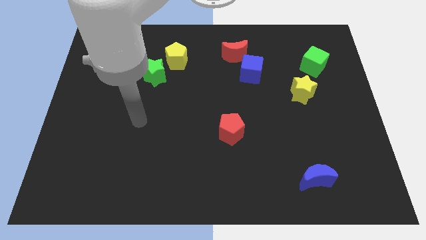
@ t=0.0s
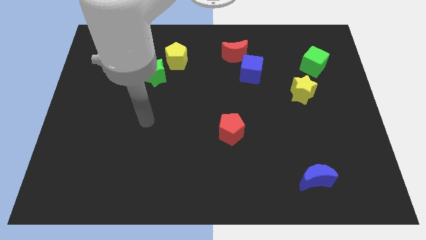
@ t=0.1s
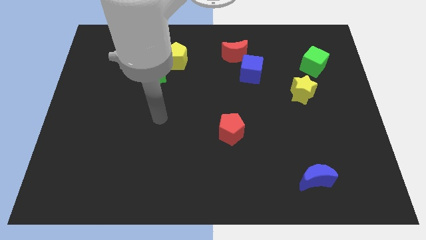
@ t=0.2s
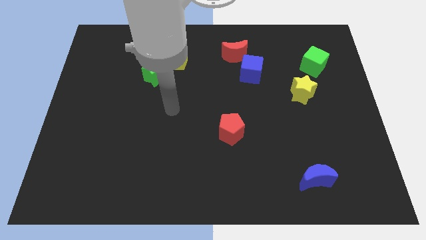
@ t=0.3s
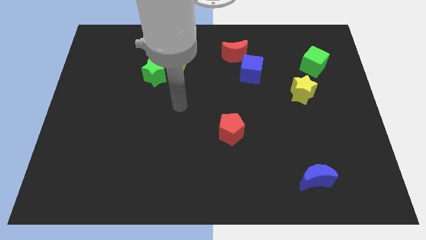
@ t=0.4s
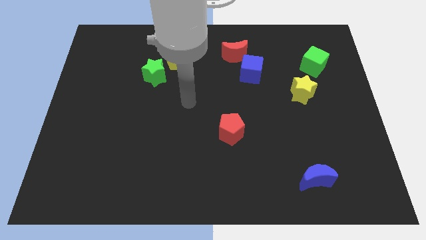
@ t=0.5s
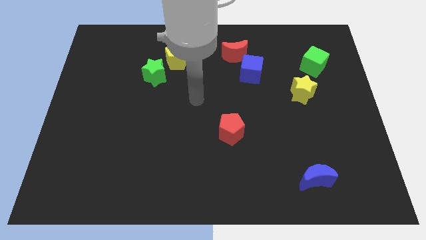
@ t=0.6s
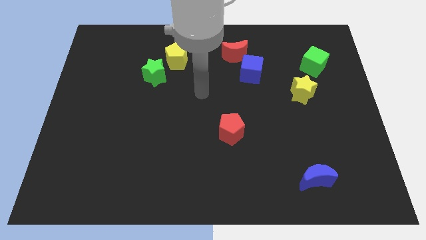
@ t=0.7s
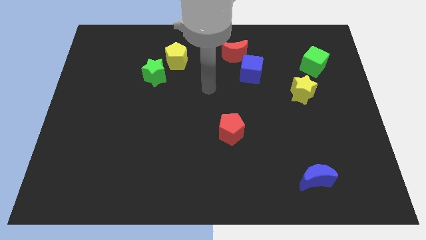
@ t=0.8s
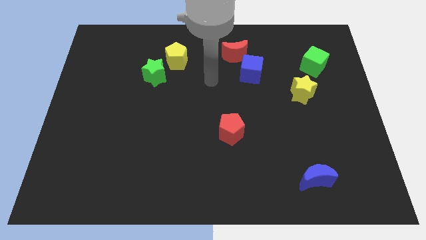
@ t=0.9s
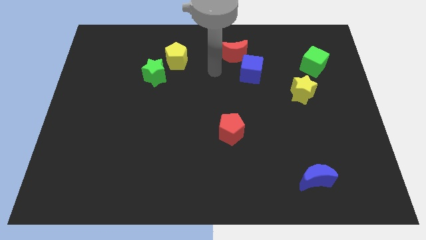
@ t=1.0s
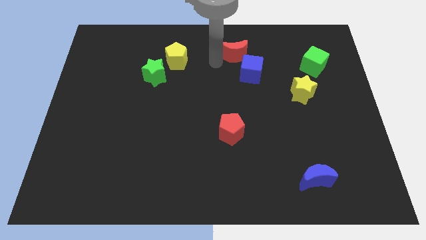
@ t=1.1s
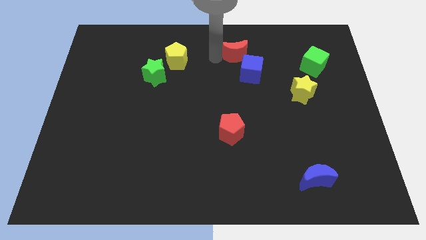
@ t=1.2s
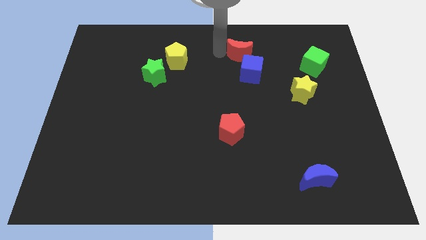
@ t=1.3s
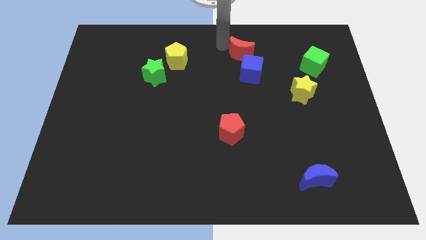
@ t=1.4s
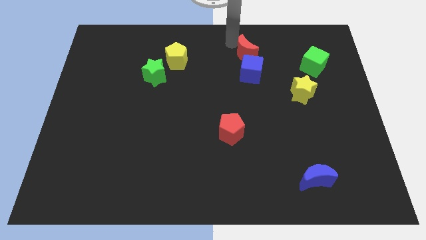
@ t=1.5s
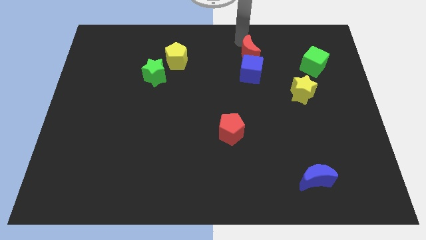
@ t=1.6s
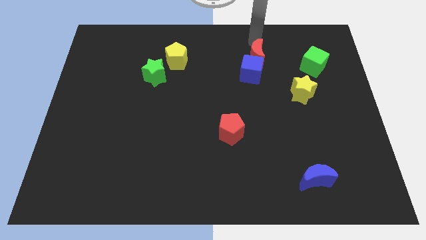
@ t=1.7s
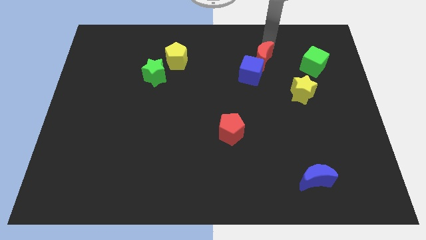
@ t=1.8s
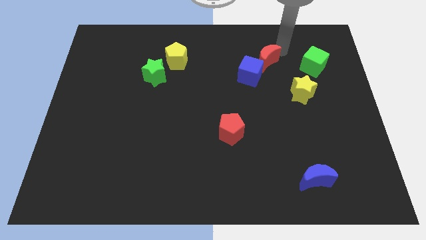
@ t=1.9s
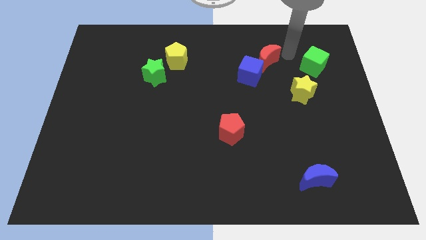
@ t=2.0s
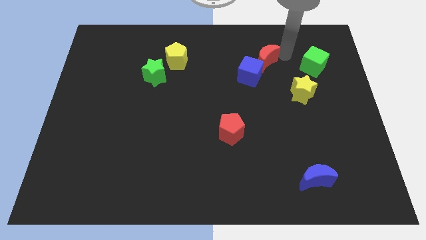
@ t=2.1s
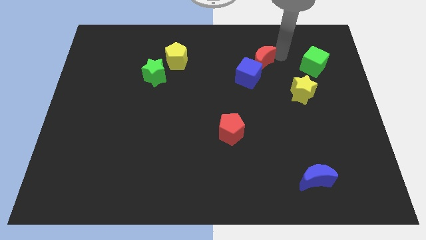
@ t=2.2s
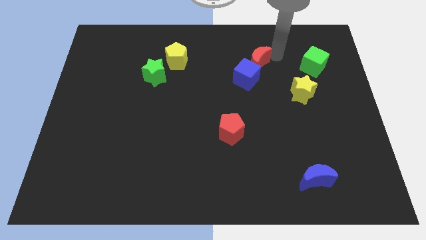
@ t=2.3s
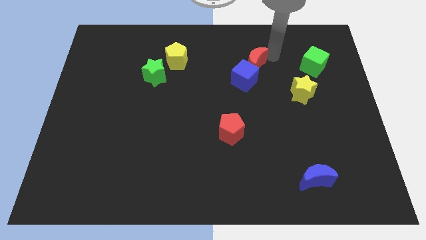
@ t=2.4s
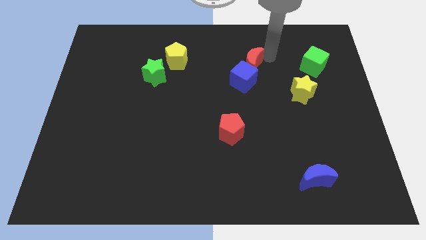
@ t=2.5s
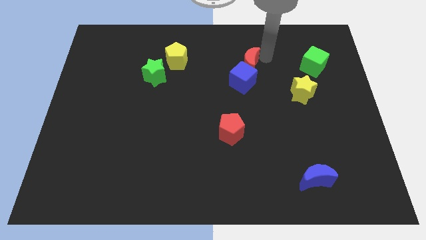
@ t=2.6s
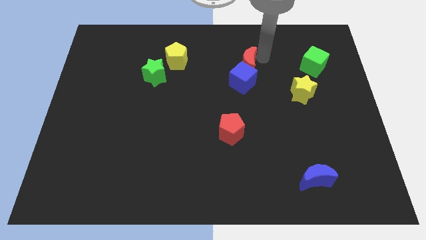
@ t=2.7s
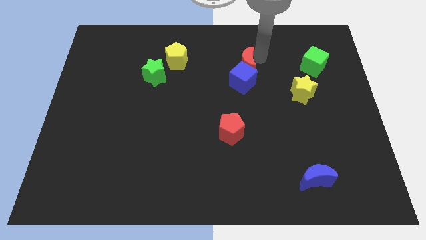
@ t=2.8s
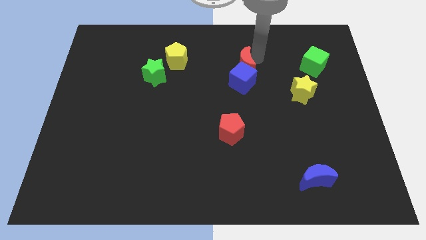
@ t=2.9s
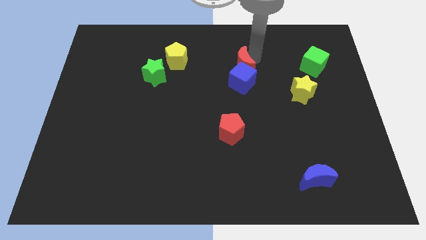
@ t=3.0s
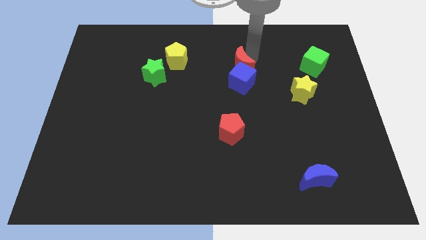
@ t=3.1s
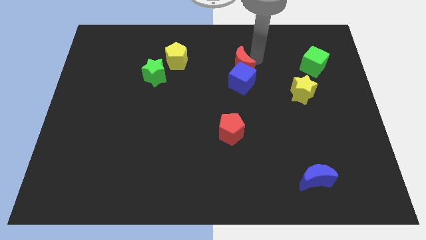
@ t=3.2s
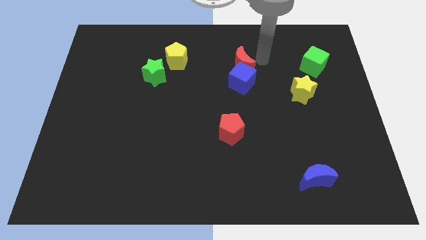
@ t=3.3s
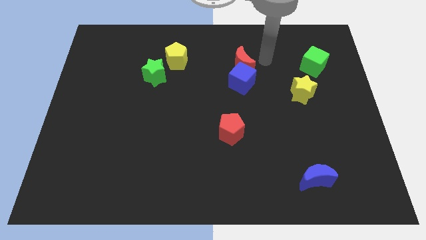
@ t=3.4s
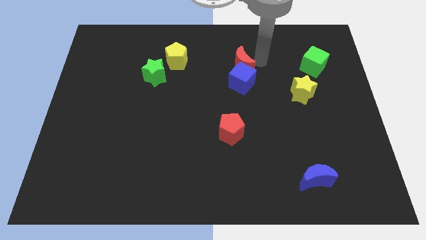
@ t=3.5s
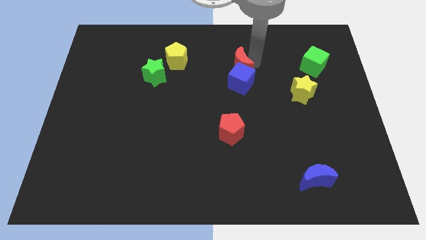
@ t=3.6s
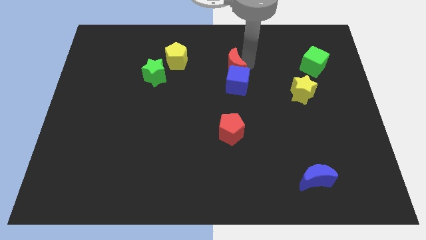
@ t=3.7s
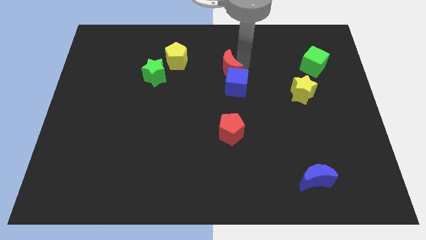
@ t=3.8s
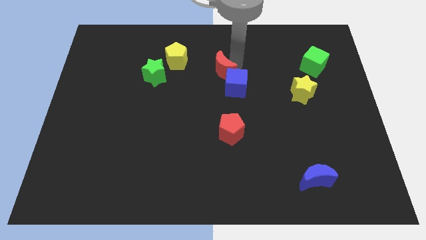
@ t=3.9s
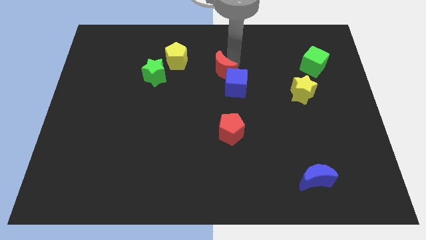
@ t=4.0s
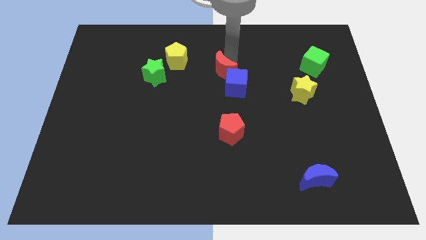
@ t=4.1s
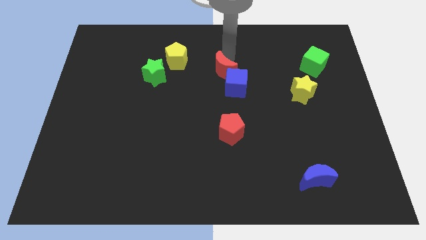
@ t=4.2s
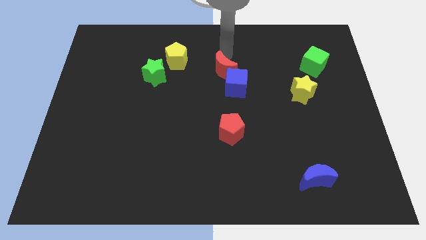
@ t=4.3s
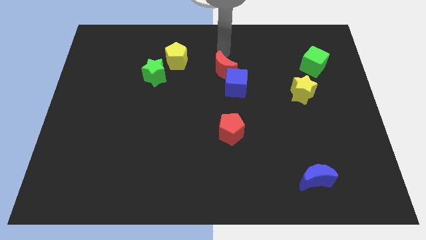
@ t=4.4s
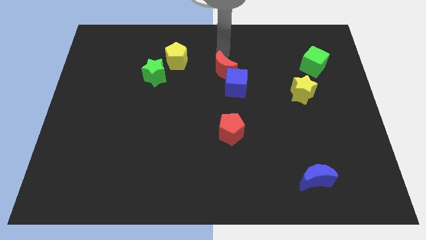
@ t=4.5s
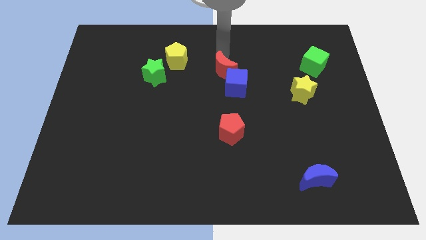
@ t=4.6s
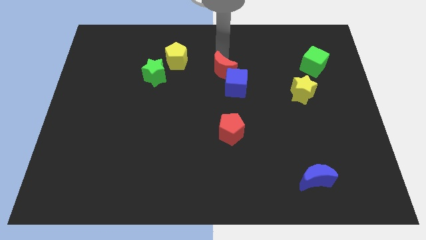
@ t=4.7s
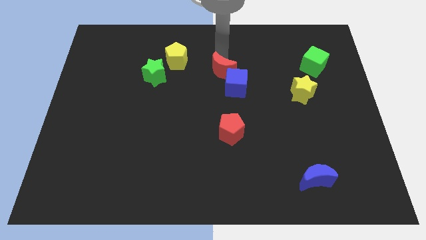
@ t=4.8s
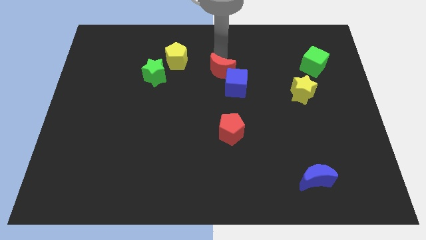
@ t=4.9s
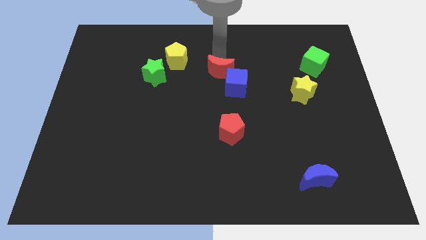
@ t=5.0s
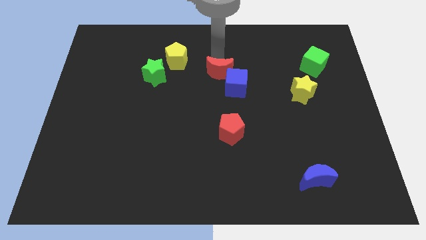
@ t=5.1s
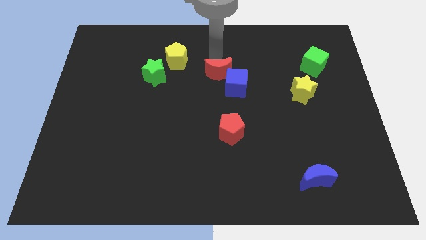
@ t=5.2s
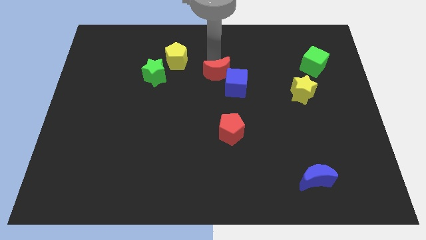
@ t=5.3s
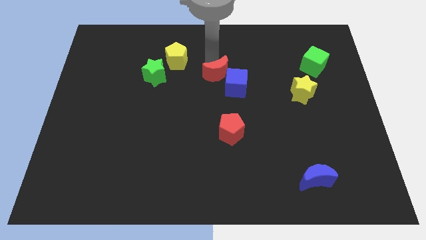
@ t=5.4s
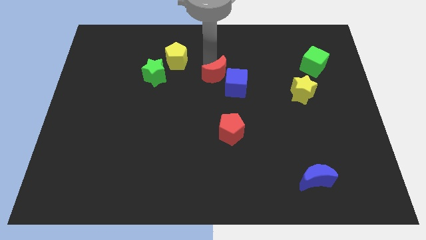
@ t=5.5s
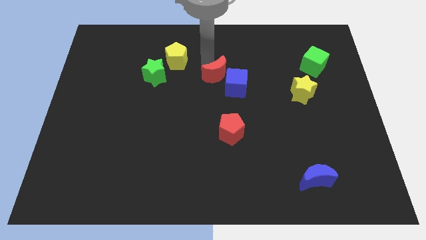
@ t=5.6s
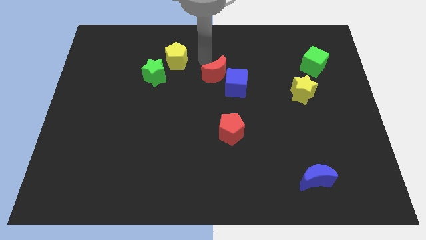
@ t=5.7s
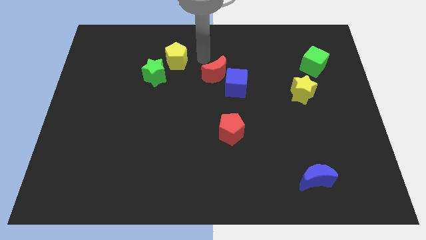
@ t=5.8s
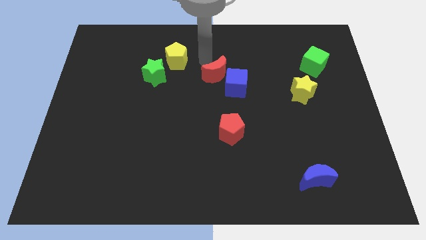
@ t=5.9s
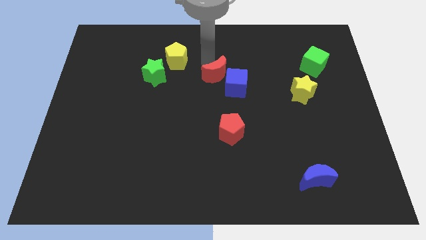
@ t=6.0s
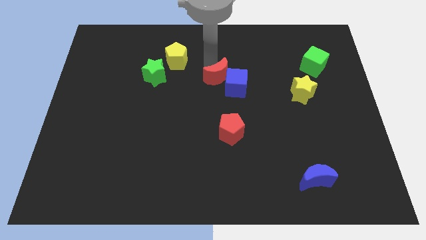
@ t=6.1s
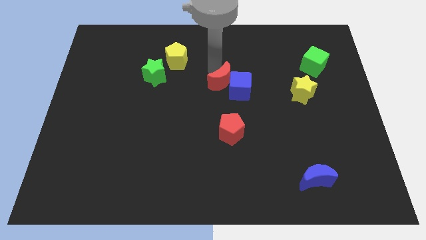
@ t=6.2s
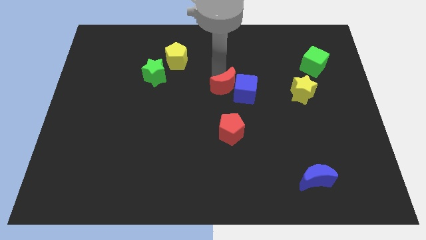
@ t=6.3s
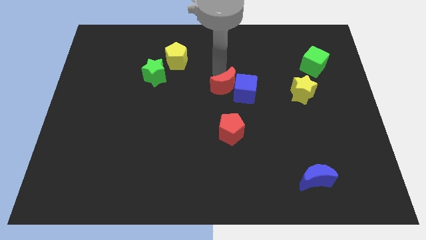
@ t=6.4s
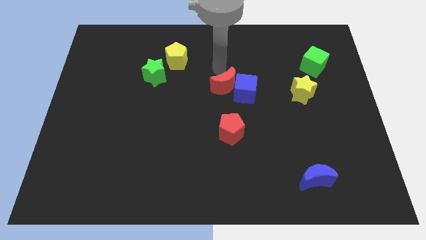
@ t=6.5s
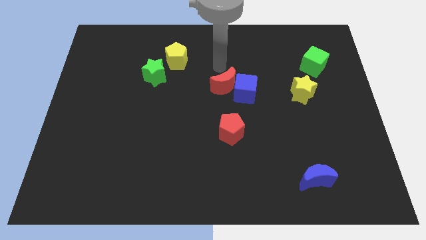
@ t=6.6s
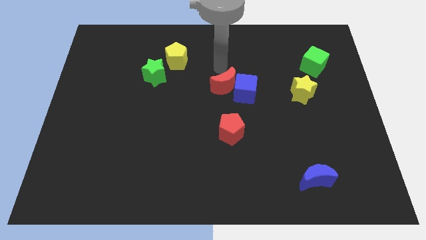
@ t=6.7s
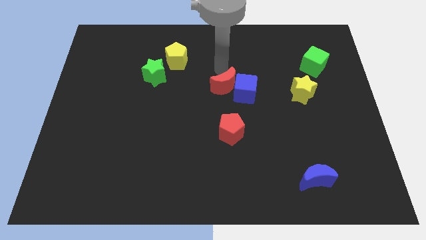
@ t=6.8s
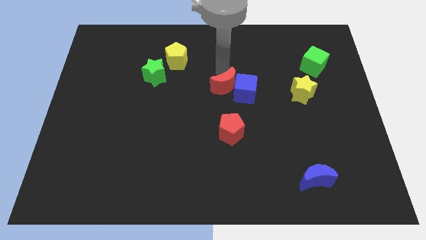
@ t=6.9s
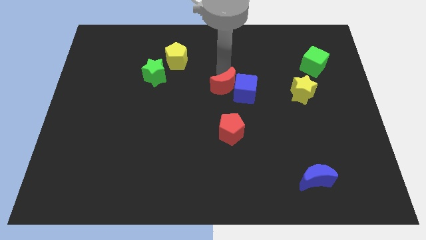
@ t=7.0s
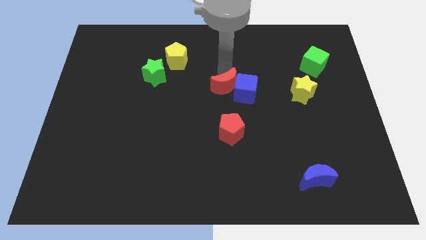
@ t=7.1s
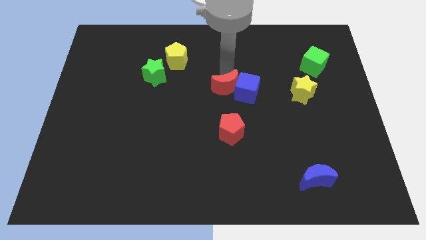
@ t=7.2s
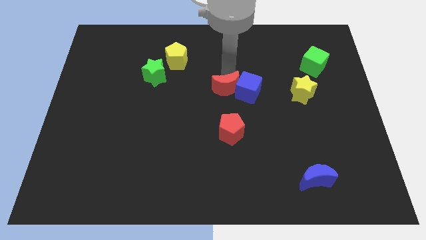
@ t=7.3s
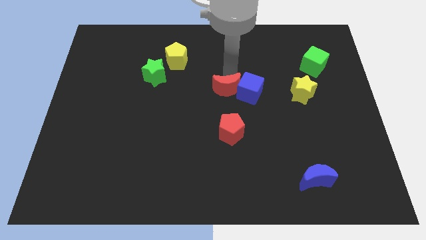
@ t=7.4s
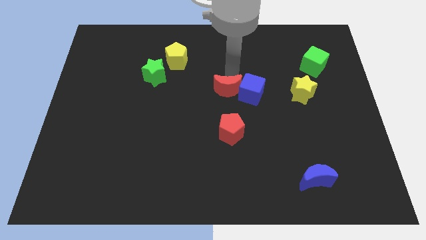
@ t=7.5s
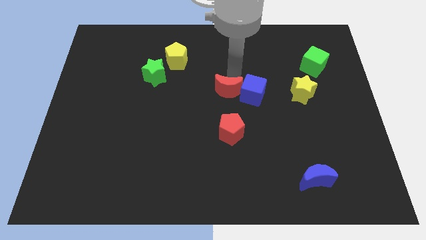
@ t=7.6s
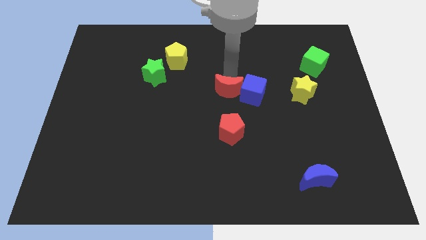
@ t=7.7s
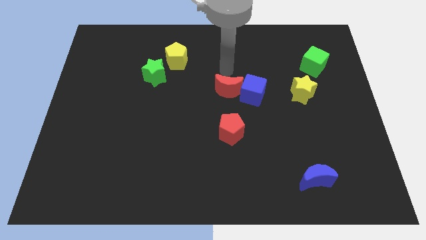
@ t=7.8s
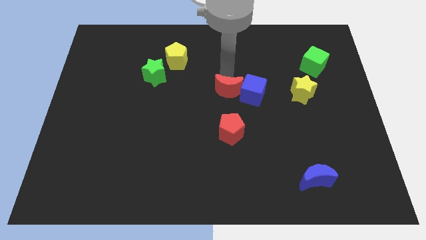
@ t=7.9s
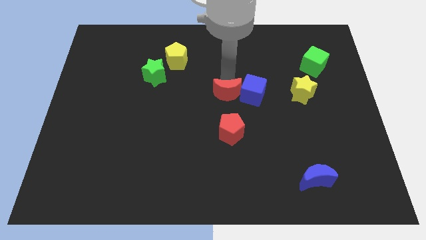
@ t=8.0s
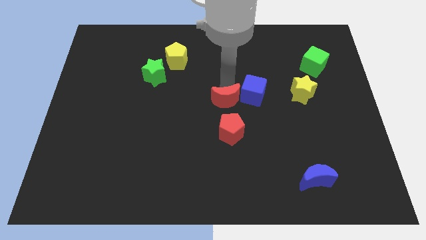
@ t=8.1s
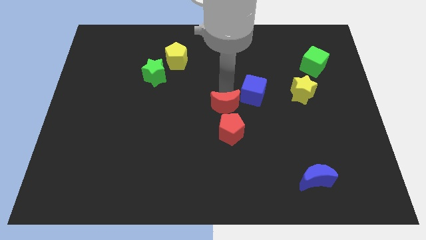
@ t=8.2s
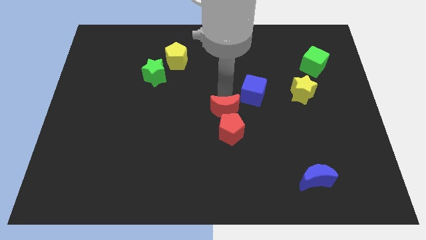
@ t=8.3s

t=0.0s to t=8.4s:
push the red moon to the red pentagon
